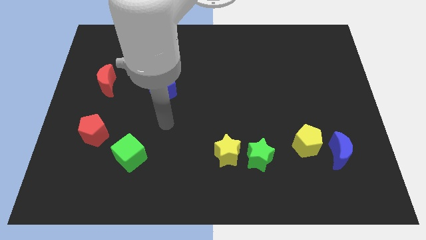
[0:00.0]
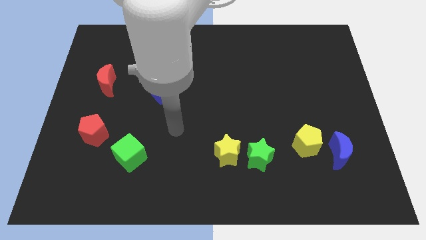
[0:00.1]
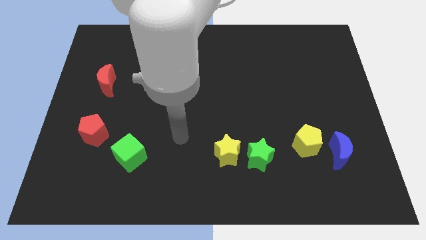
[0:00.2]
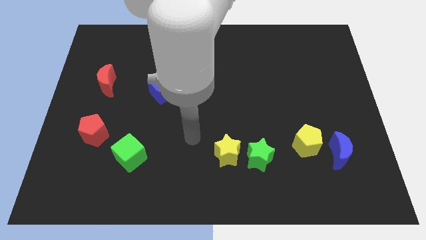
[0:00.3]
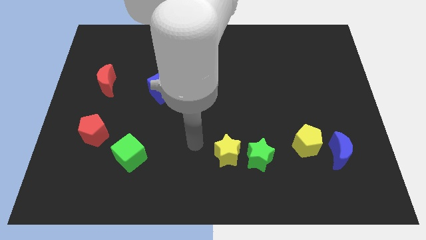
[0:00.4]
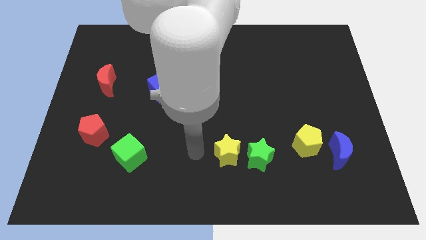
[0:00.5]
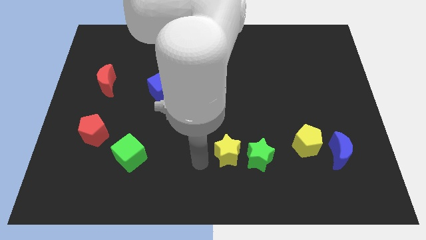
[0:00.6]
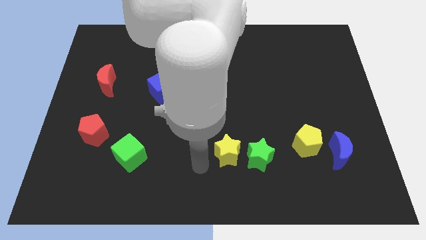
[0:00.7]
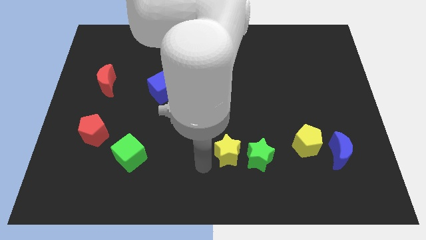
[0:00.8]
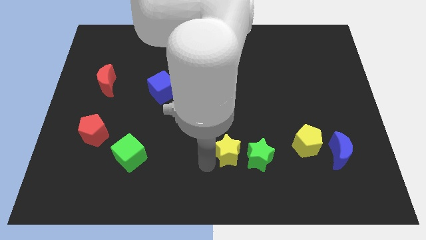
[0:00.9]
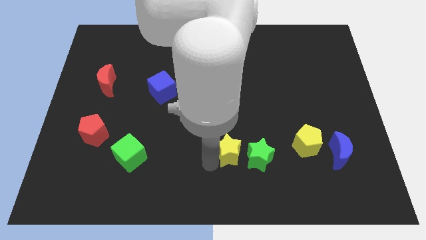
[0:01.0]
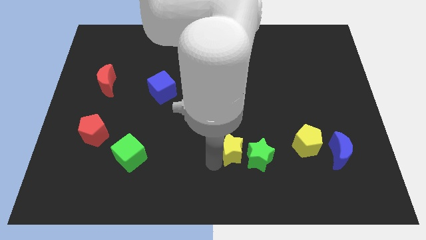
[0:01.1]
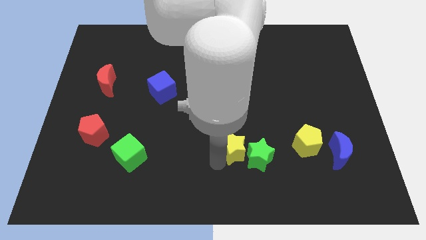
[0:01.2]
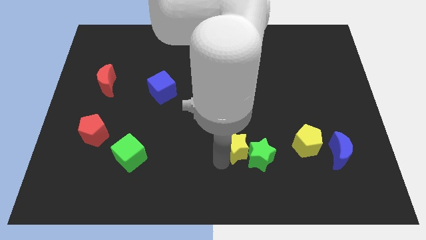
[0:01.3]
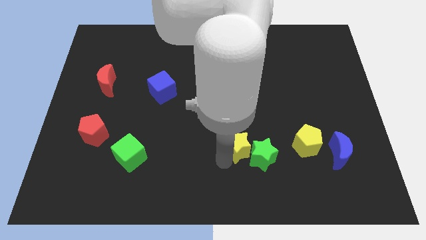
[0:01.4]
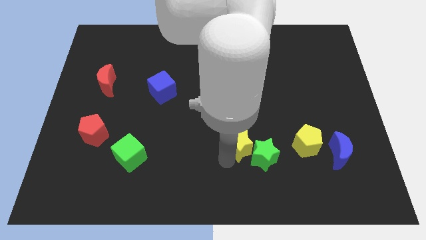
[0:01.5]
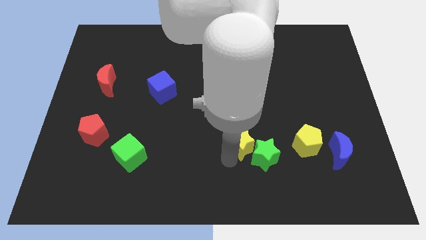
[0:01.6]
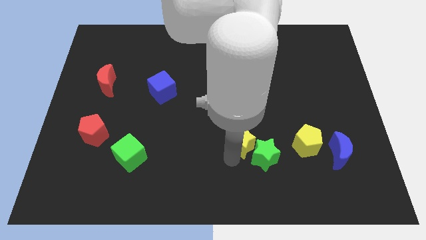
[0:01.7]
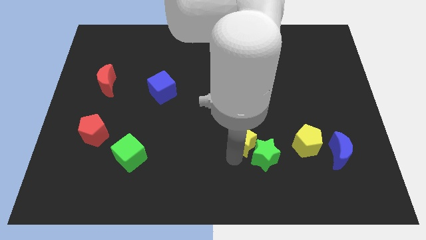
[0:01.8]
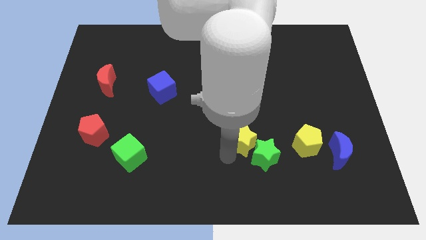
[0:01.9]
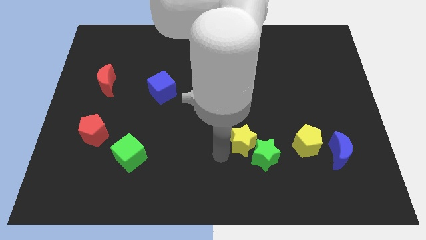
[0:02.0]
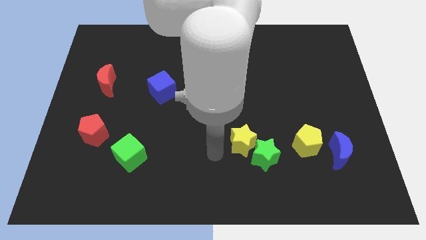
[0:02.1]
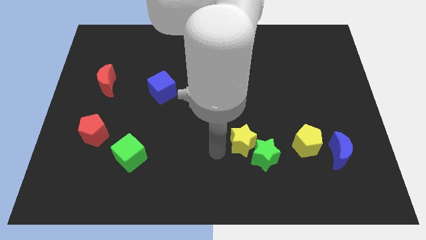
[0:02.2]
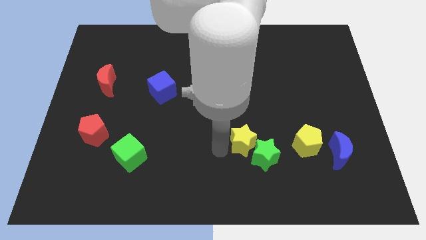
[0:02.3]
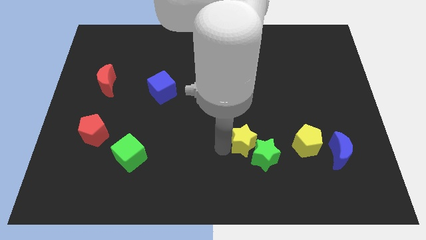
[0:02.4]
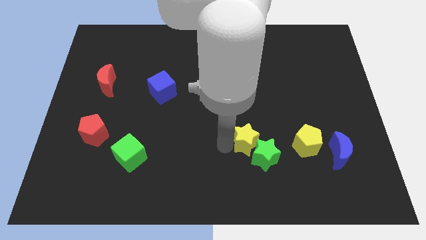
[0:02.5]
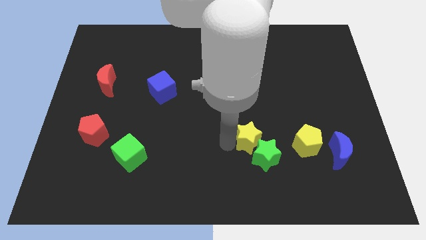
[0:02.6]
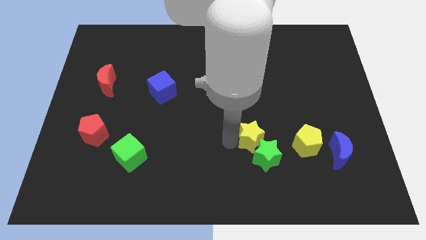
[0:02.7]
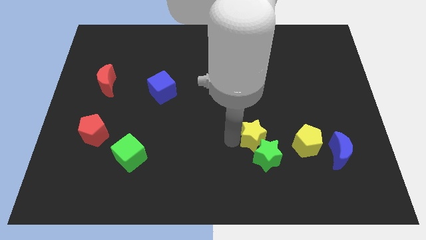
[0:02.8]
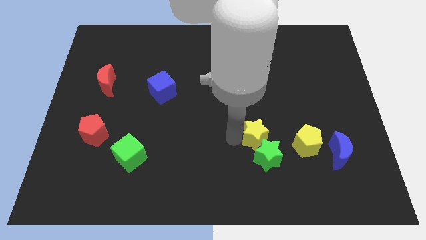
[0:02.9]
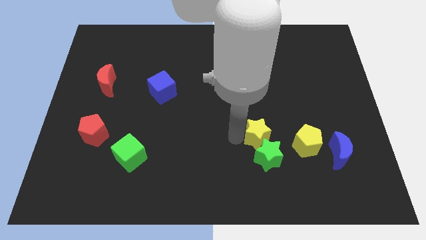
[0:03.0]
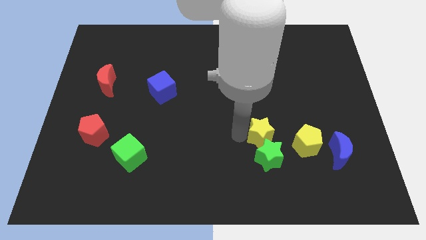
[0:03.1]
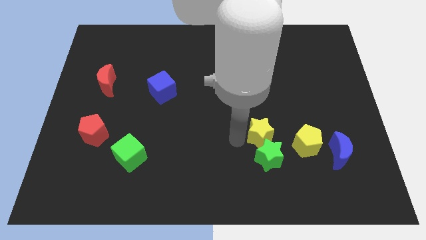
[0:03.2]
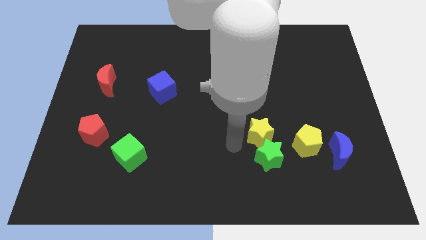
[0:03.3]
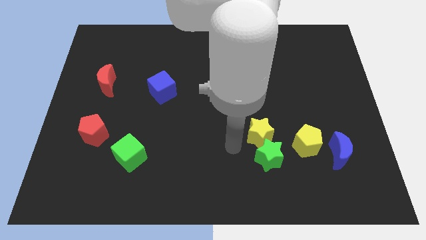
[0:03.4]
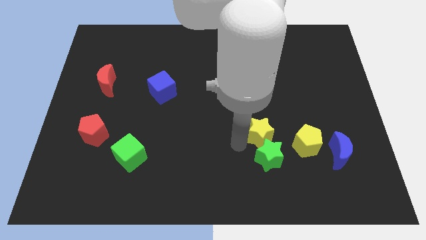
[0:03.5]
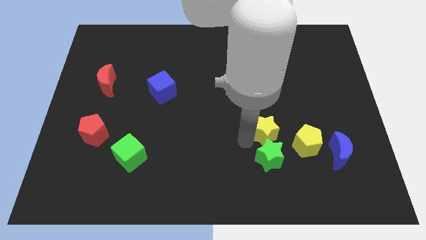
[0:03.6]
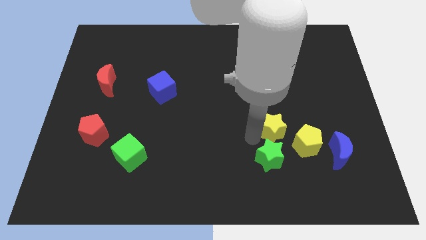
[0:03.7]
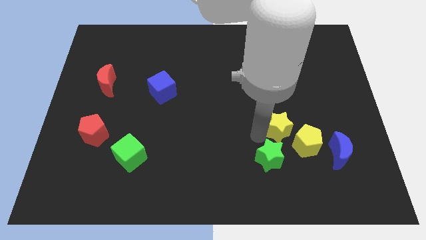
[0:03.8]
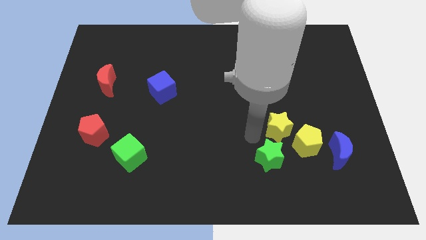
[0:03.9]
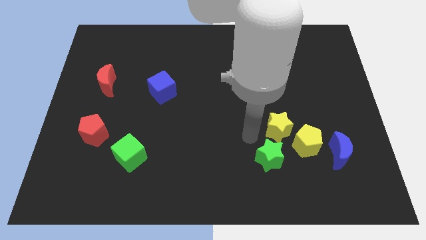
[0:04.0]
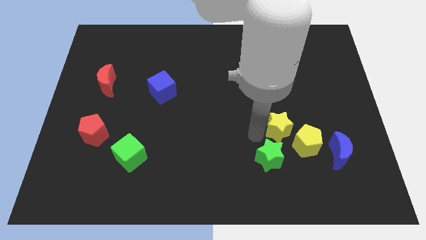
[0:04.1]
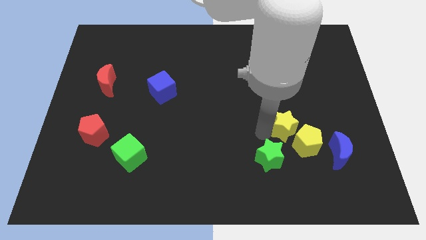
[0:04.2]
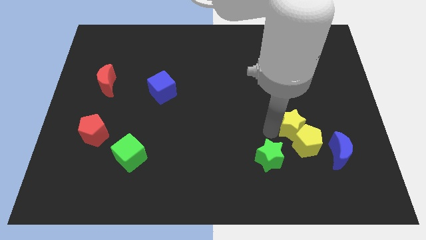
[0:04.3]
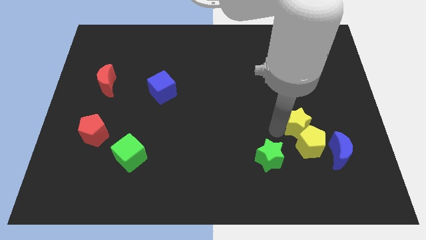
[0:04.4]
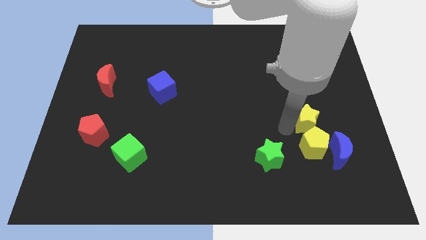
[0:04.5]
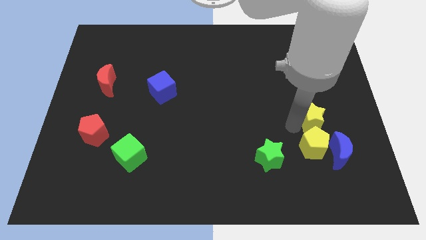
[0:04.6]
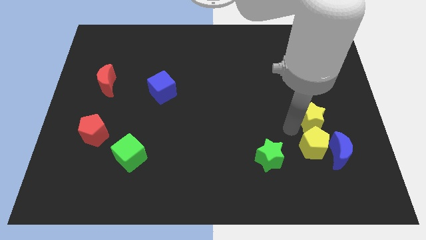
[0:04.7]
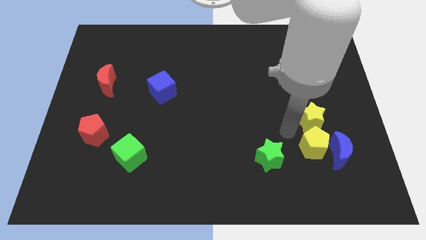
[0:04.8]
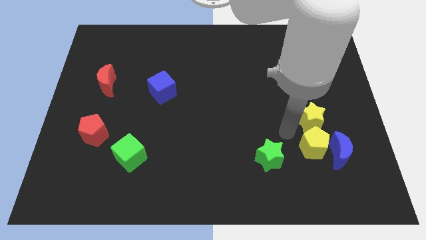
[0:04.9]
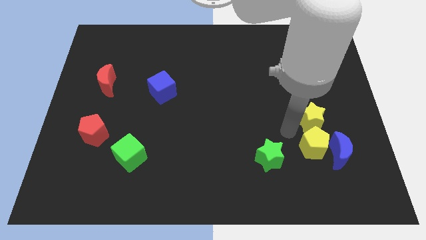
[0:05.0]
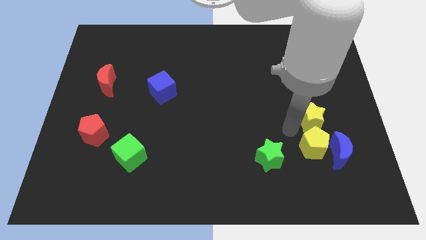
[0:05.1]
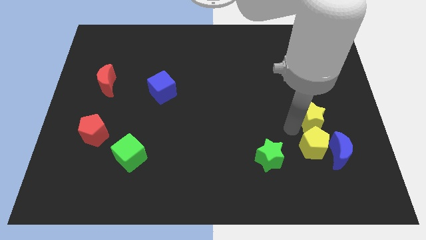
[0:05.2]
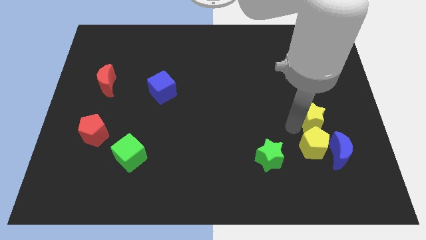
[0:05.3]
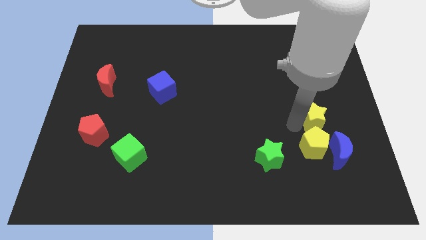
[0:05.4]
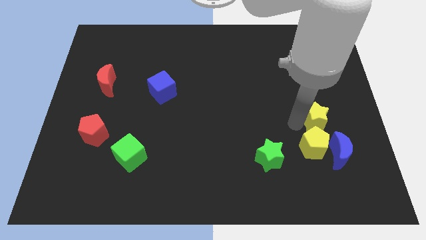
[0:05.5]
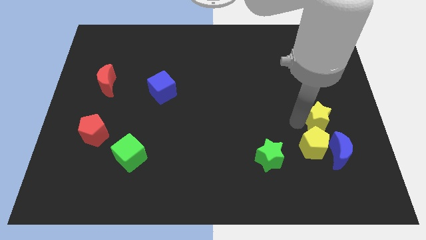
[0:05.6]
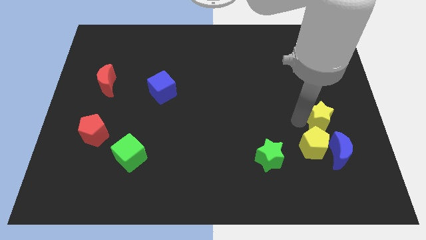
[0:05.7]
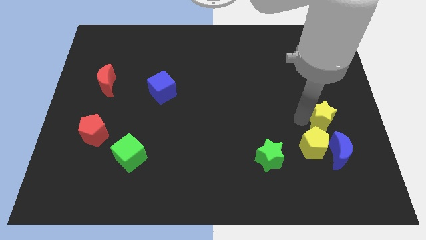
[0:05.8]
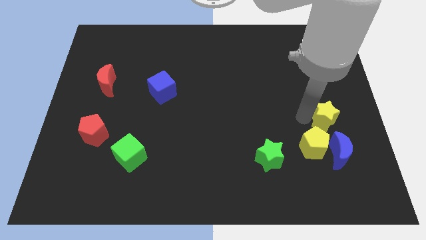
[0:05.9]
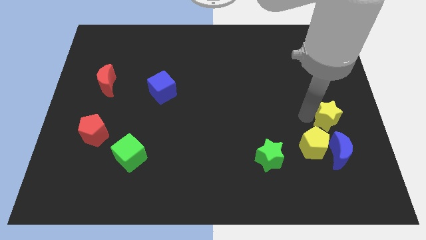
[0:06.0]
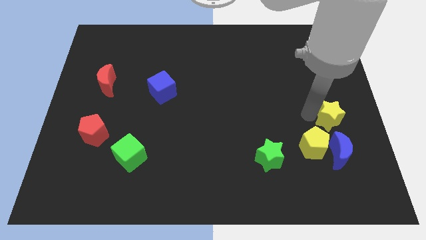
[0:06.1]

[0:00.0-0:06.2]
slide the yellow star to the right side

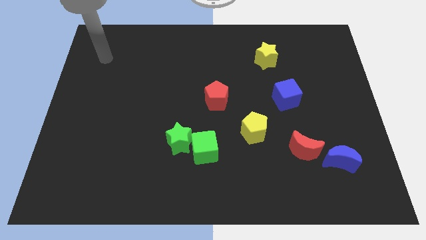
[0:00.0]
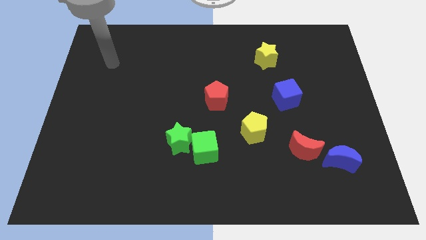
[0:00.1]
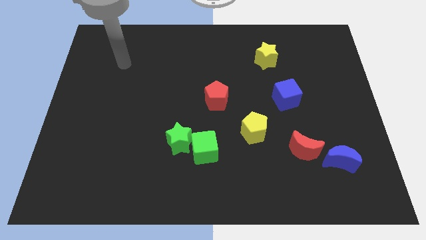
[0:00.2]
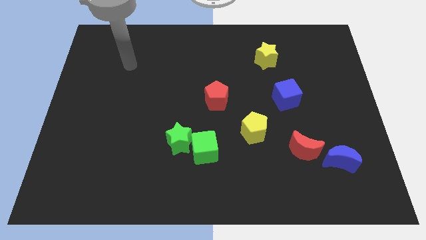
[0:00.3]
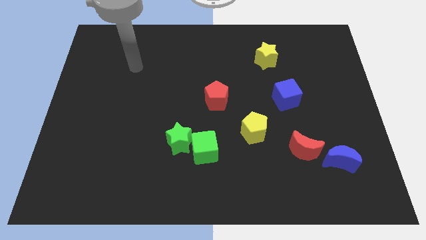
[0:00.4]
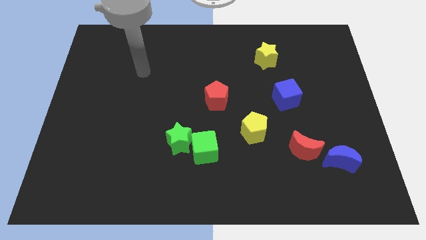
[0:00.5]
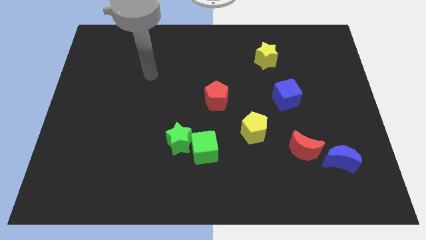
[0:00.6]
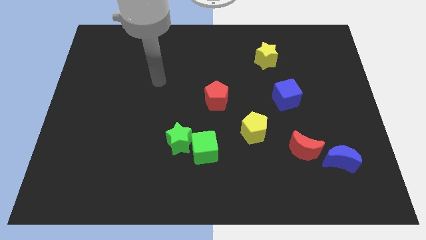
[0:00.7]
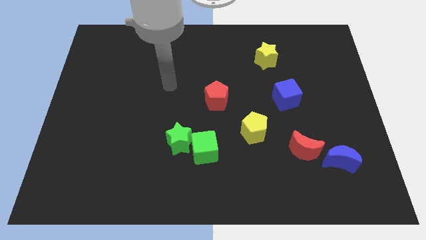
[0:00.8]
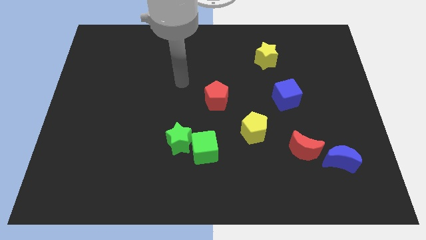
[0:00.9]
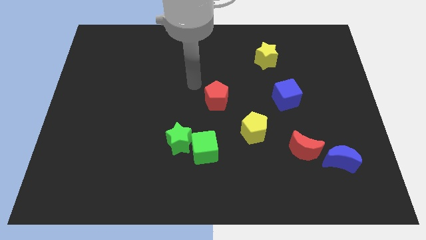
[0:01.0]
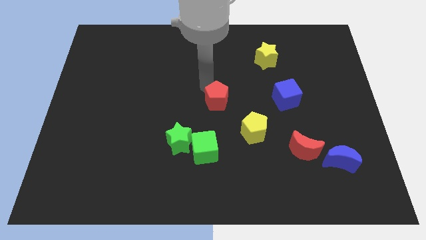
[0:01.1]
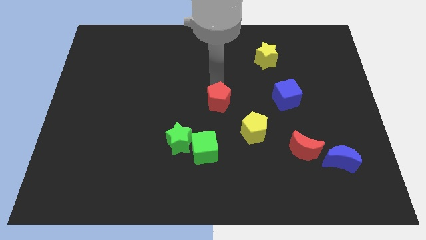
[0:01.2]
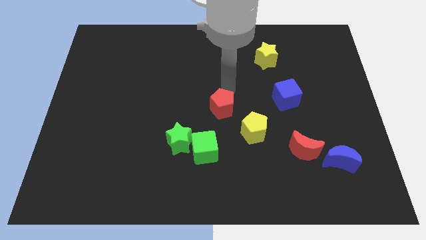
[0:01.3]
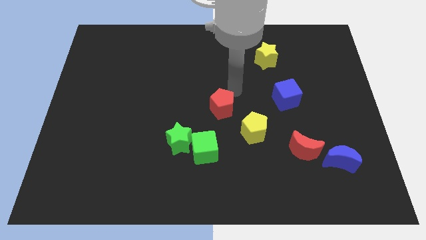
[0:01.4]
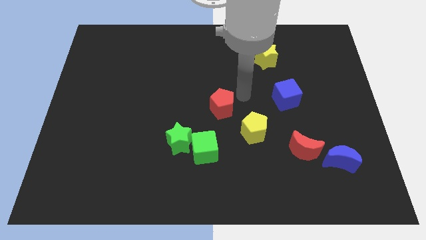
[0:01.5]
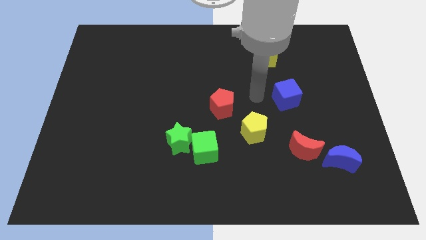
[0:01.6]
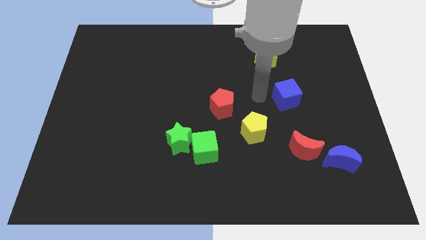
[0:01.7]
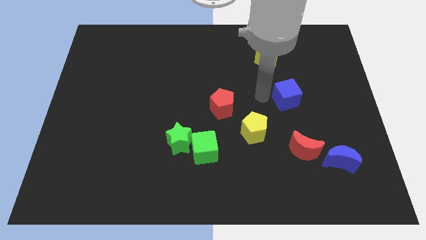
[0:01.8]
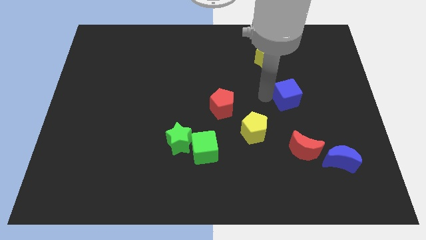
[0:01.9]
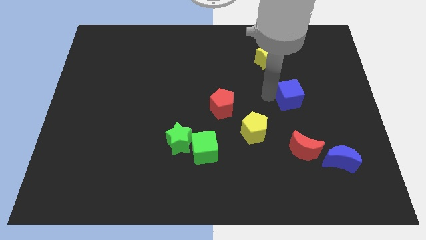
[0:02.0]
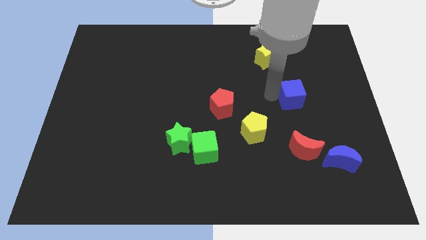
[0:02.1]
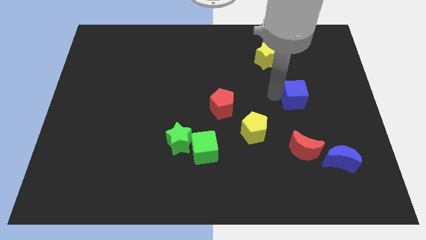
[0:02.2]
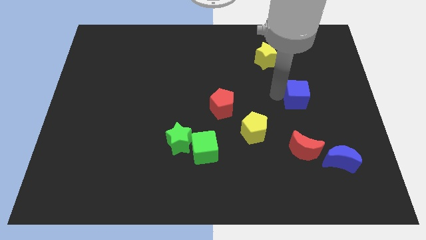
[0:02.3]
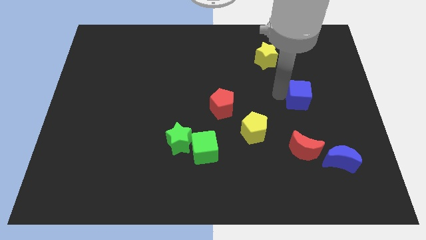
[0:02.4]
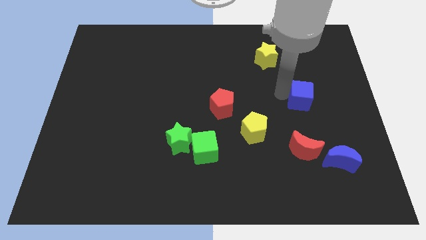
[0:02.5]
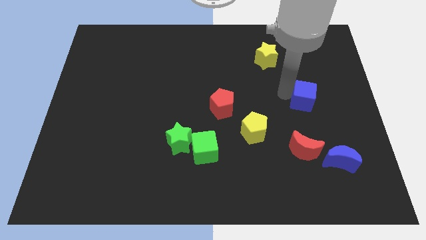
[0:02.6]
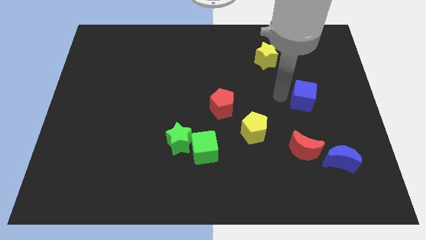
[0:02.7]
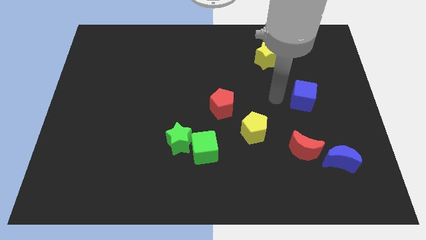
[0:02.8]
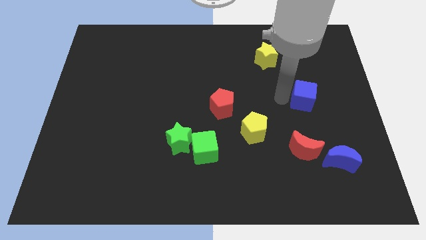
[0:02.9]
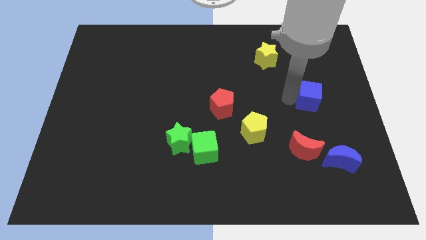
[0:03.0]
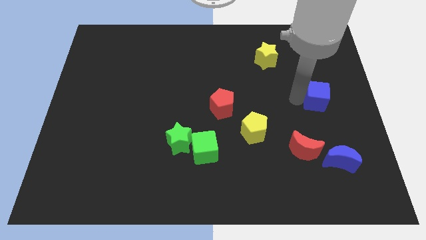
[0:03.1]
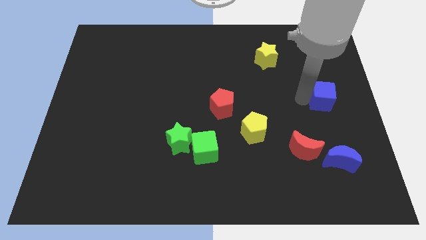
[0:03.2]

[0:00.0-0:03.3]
put the blue cube to the right side
